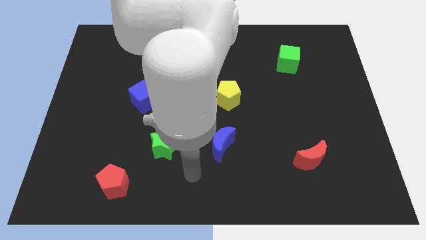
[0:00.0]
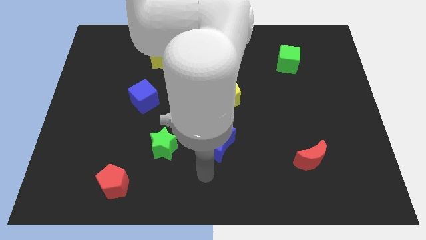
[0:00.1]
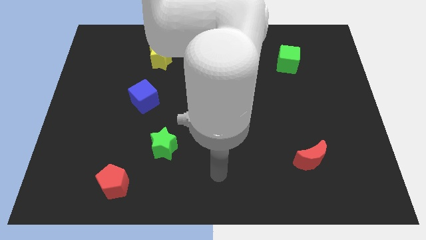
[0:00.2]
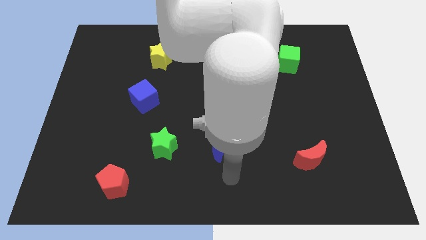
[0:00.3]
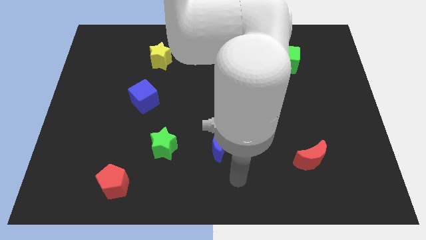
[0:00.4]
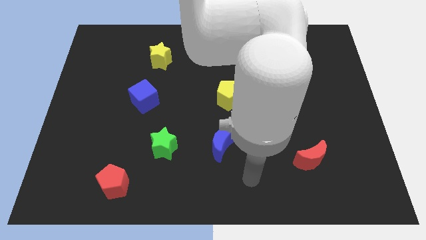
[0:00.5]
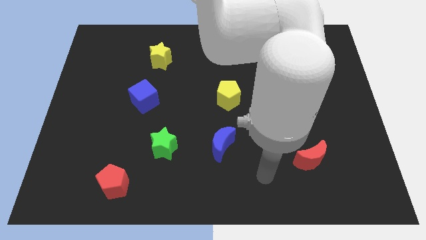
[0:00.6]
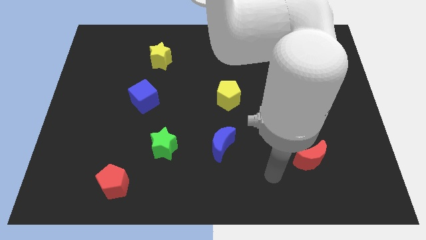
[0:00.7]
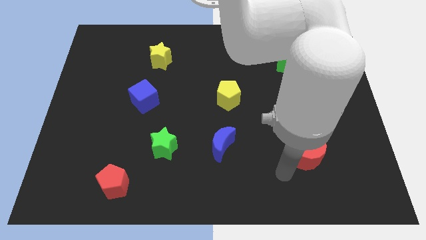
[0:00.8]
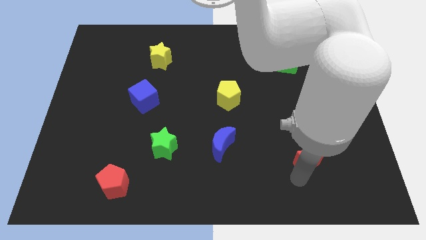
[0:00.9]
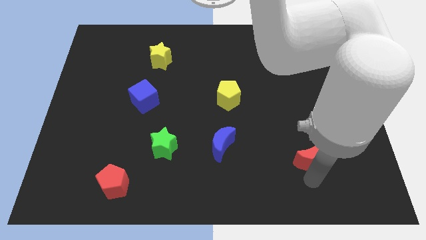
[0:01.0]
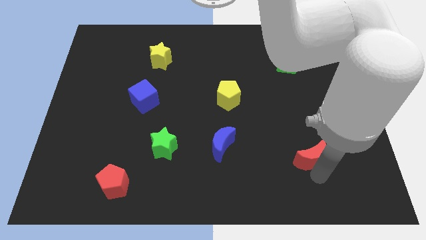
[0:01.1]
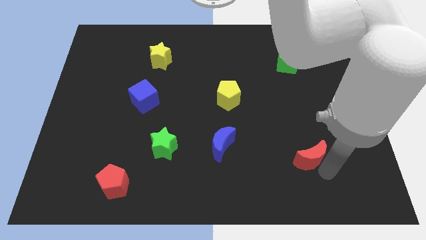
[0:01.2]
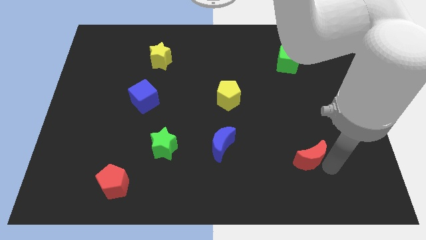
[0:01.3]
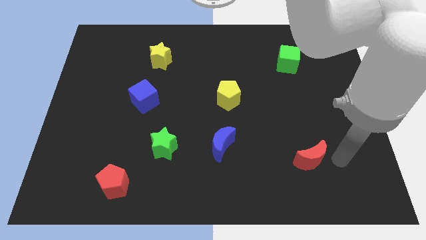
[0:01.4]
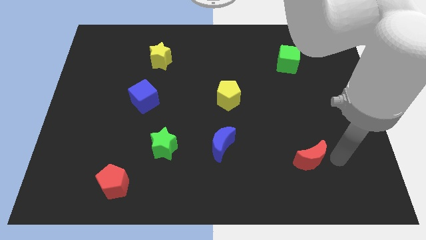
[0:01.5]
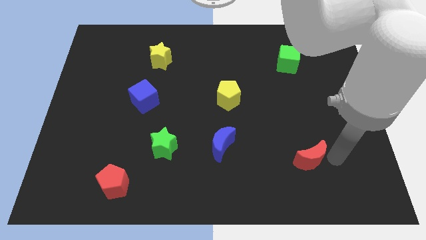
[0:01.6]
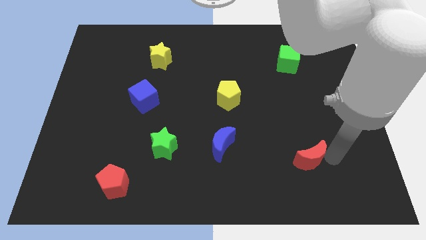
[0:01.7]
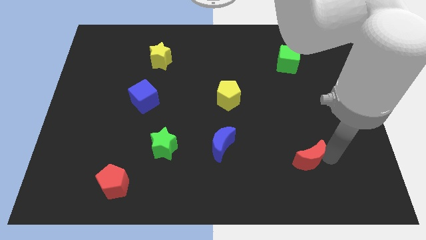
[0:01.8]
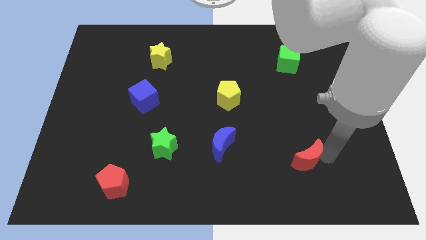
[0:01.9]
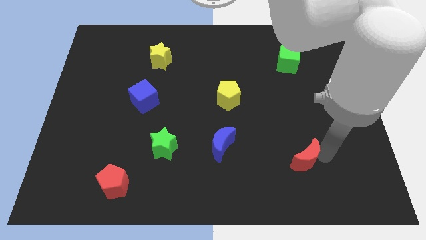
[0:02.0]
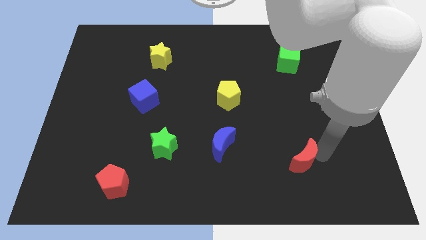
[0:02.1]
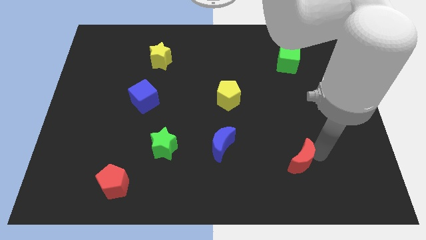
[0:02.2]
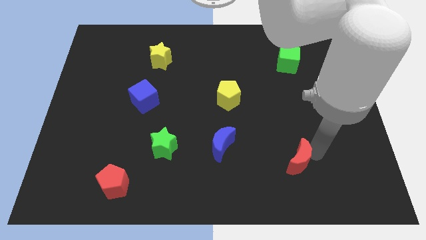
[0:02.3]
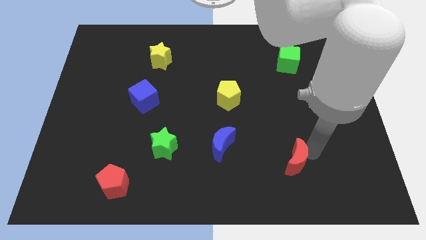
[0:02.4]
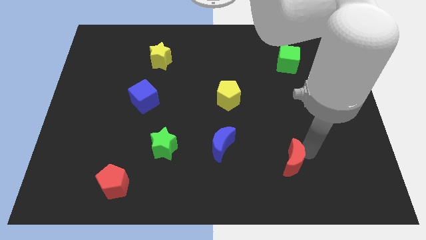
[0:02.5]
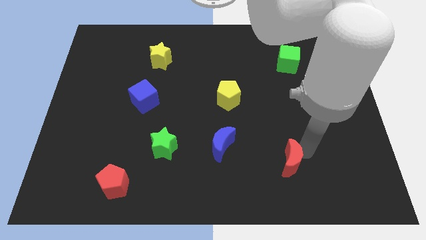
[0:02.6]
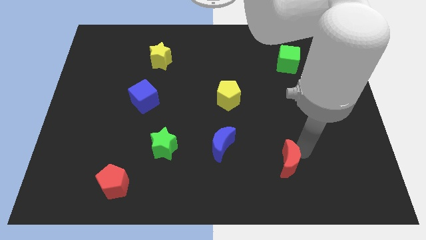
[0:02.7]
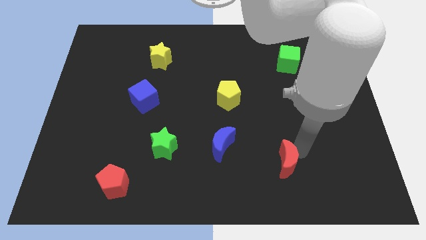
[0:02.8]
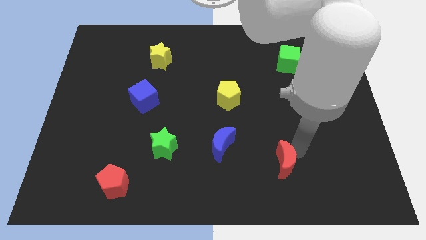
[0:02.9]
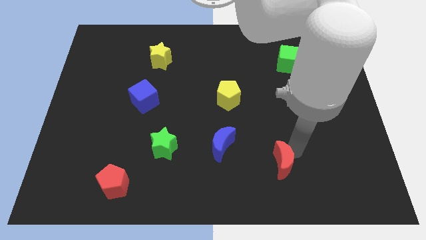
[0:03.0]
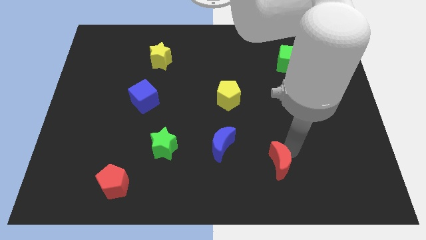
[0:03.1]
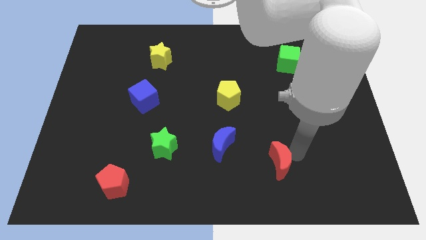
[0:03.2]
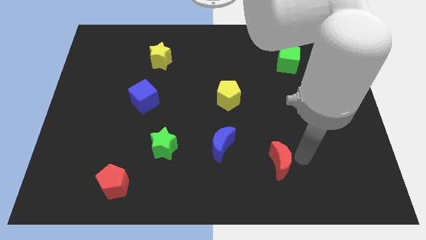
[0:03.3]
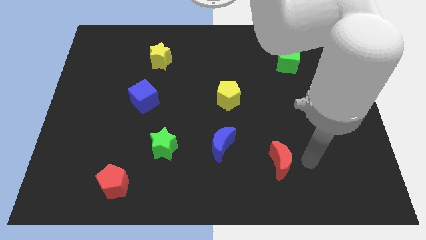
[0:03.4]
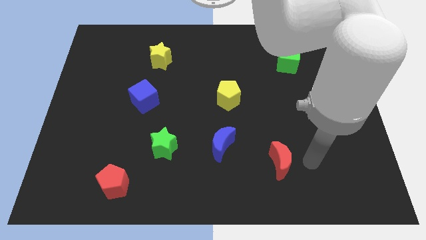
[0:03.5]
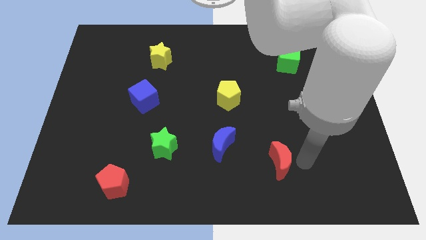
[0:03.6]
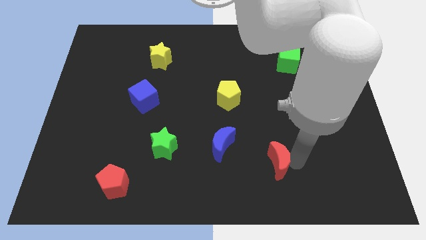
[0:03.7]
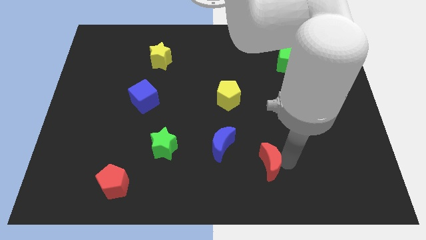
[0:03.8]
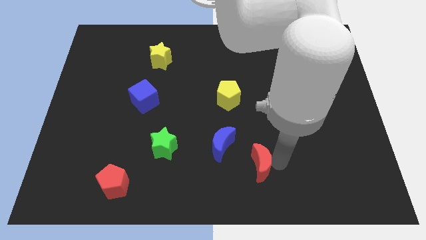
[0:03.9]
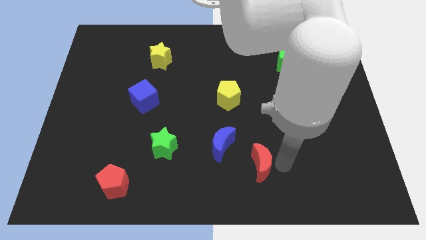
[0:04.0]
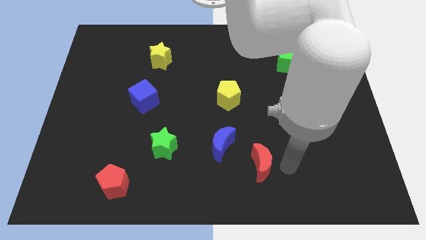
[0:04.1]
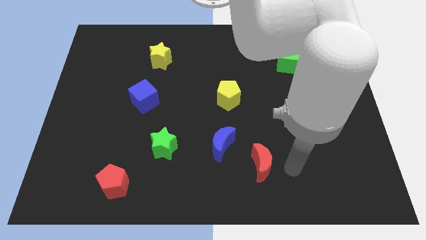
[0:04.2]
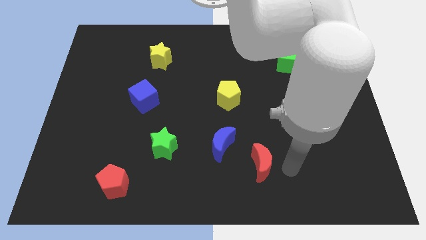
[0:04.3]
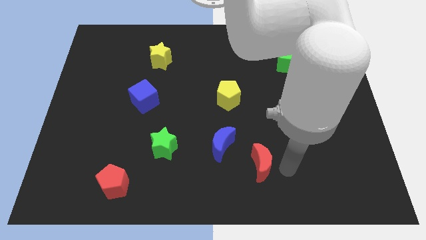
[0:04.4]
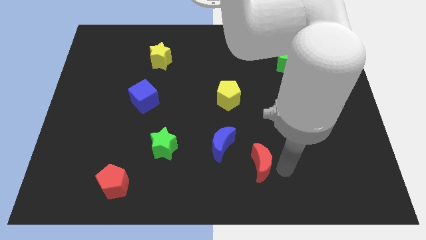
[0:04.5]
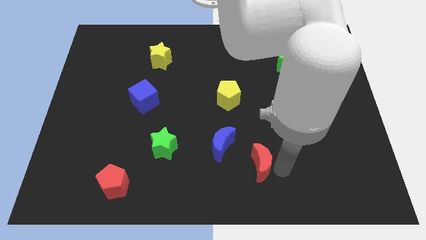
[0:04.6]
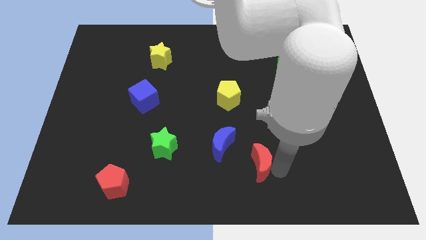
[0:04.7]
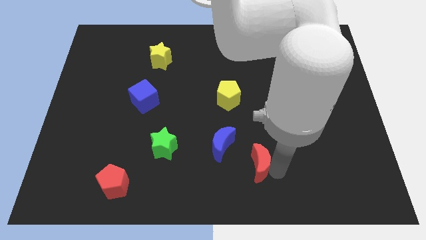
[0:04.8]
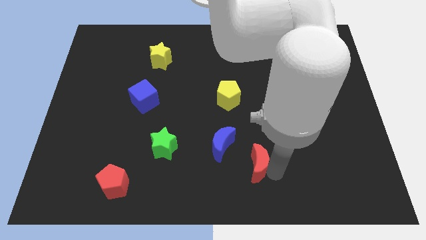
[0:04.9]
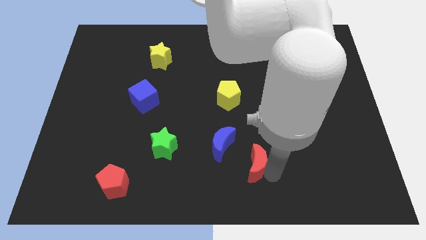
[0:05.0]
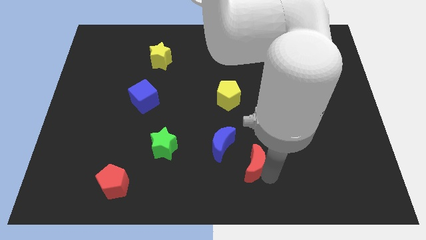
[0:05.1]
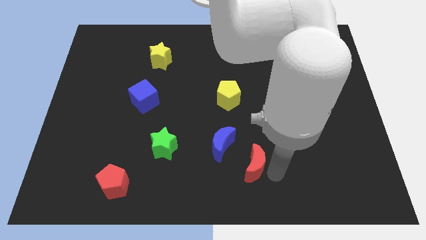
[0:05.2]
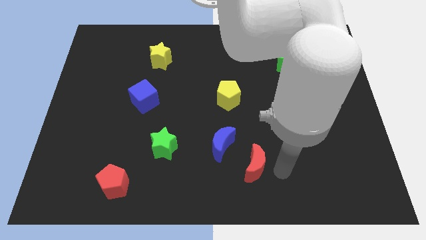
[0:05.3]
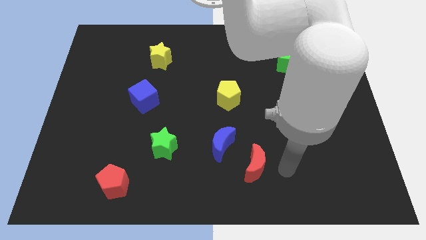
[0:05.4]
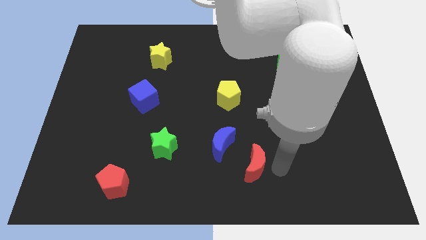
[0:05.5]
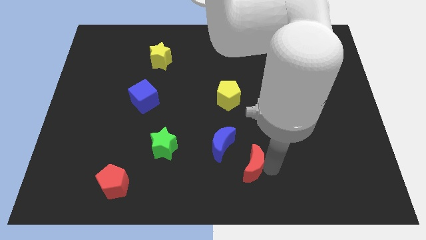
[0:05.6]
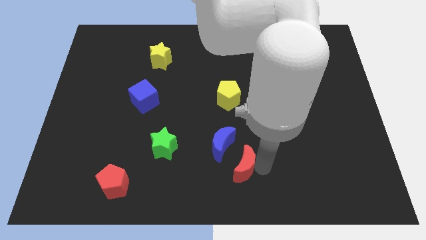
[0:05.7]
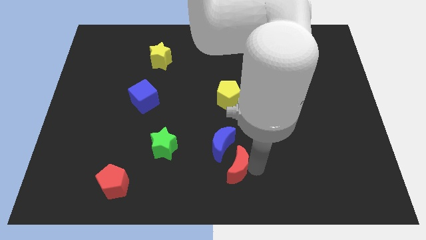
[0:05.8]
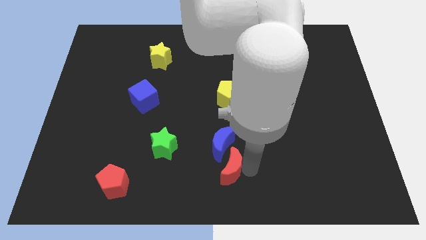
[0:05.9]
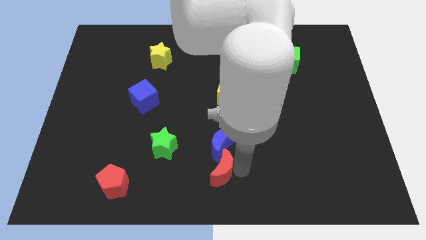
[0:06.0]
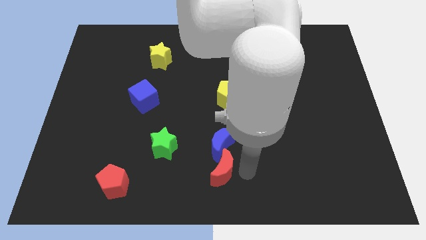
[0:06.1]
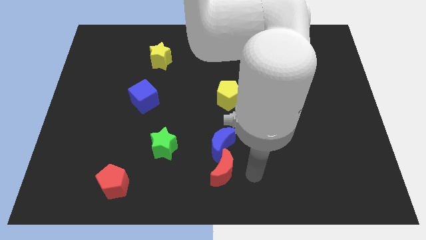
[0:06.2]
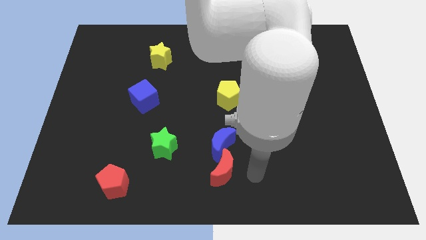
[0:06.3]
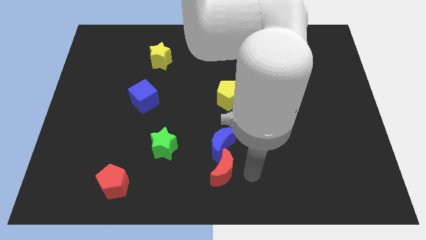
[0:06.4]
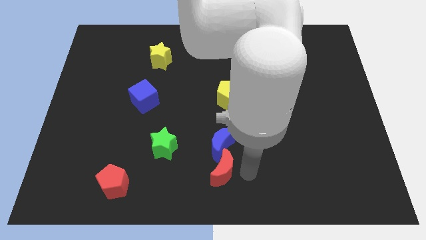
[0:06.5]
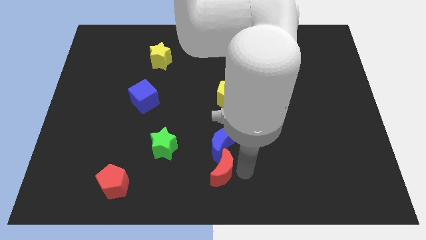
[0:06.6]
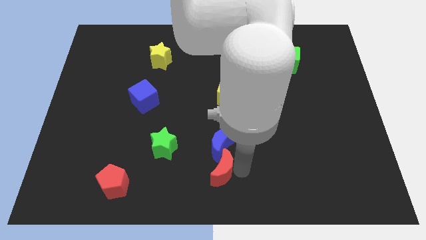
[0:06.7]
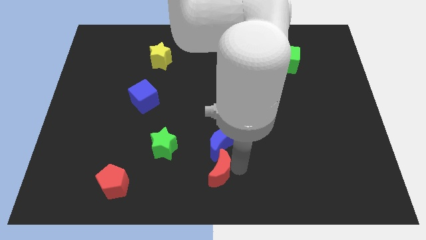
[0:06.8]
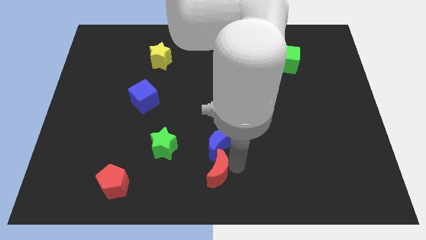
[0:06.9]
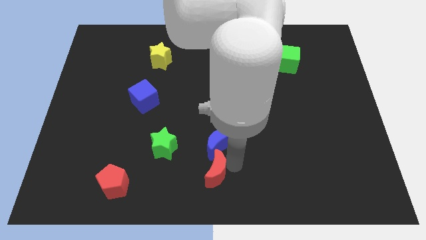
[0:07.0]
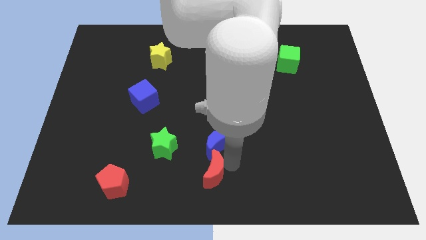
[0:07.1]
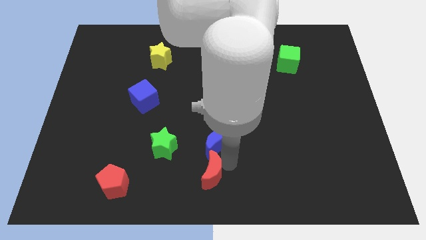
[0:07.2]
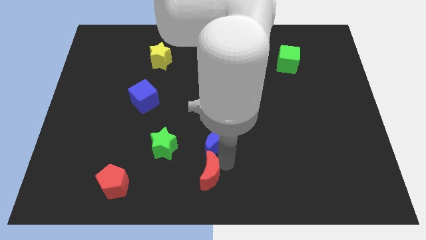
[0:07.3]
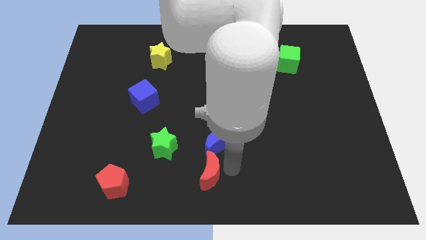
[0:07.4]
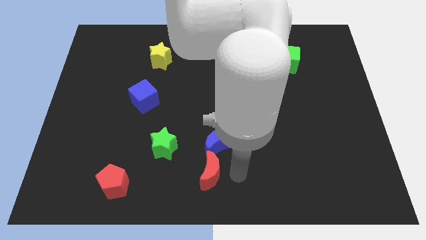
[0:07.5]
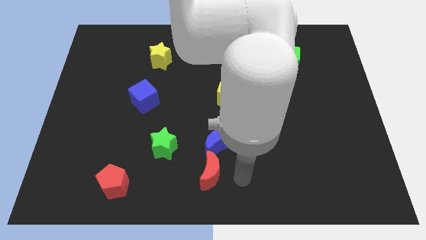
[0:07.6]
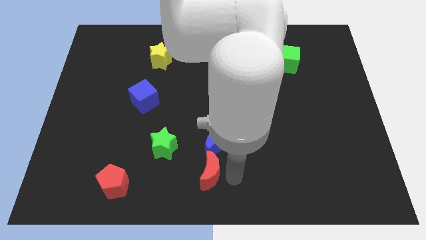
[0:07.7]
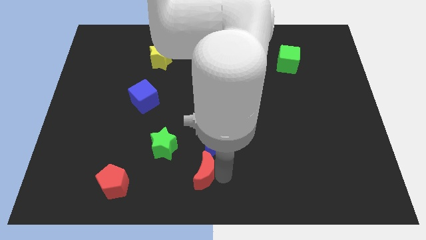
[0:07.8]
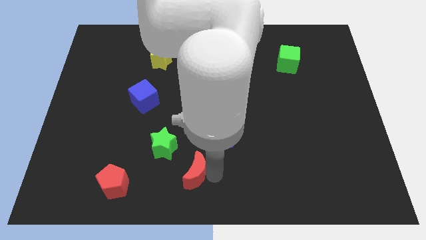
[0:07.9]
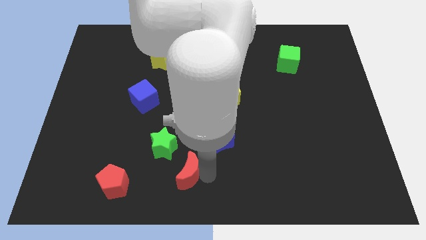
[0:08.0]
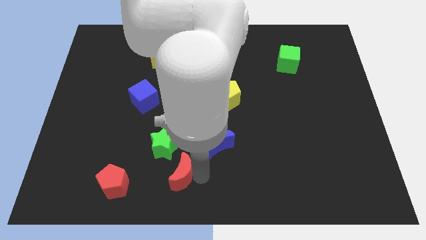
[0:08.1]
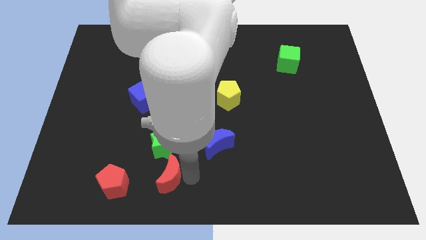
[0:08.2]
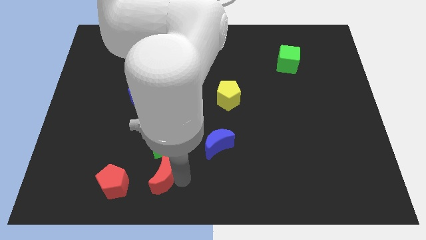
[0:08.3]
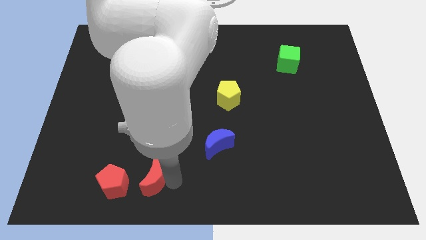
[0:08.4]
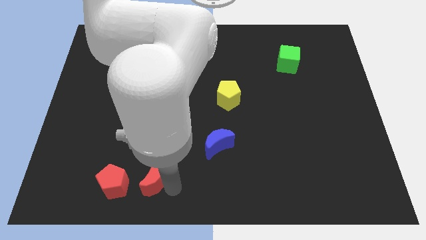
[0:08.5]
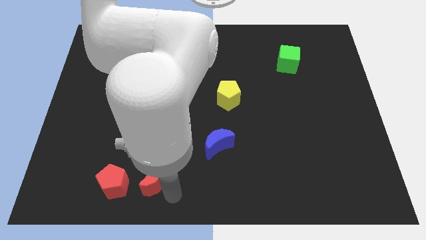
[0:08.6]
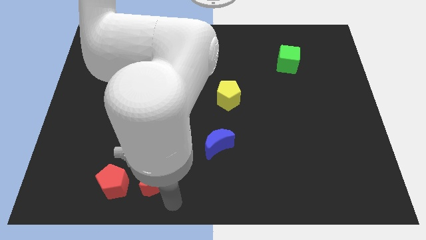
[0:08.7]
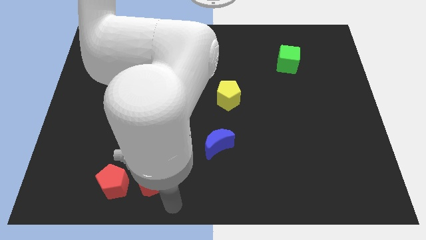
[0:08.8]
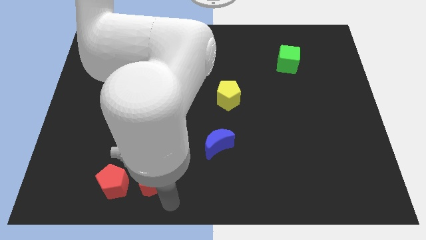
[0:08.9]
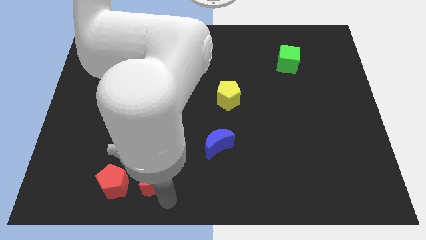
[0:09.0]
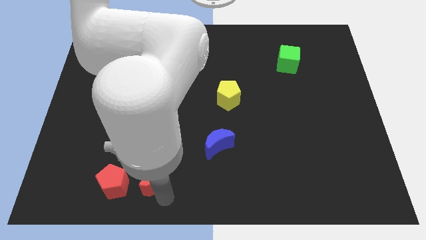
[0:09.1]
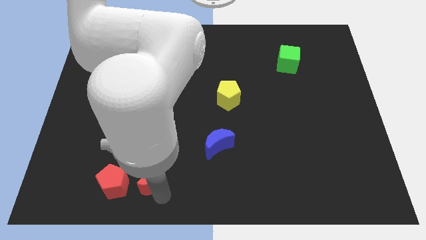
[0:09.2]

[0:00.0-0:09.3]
put the red moon to the top right of the red pentagon
